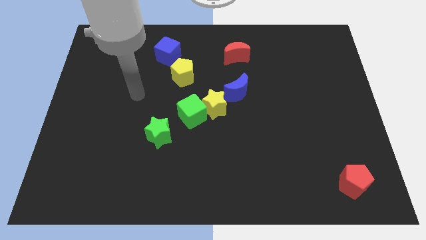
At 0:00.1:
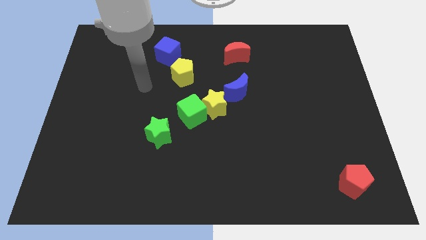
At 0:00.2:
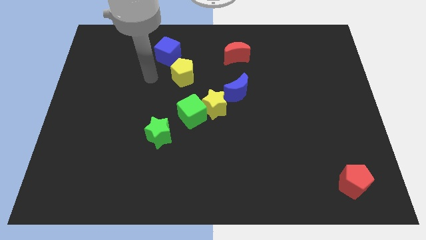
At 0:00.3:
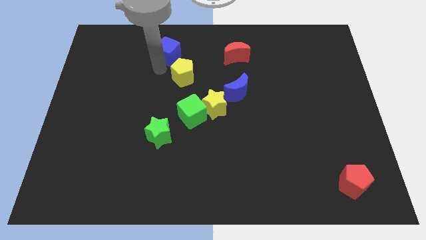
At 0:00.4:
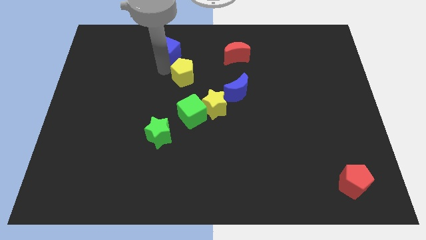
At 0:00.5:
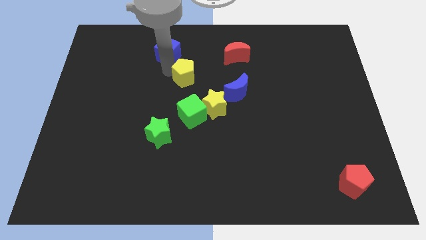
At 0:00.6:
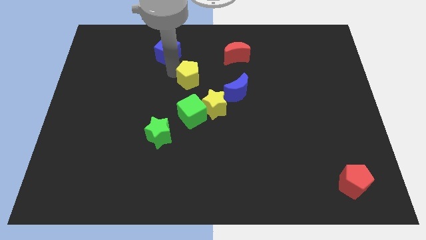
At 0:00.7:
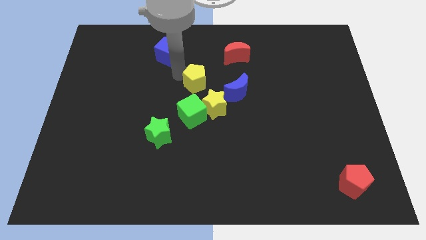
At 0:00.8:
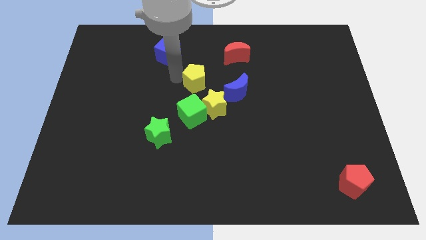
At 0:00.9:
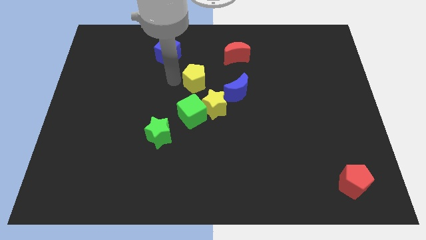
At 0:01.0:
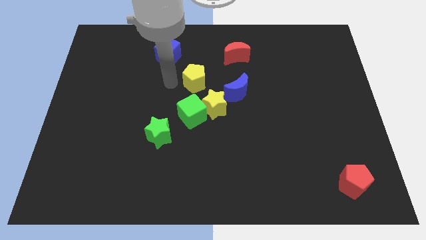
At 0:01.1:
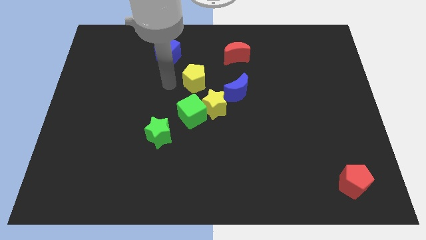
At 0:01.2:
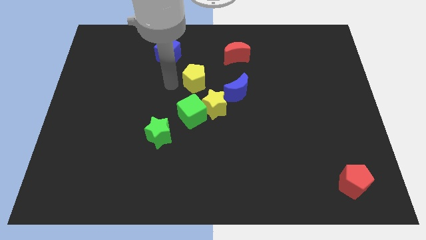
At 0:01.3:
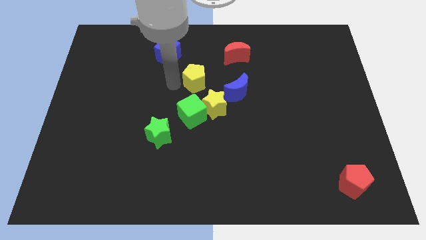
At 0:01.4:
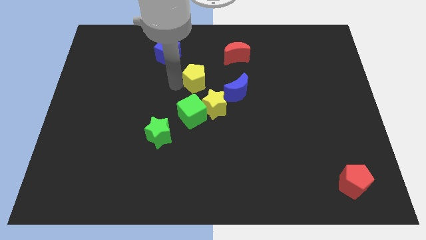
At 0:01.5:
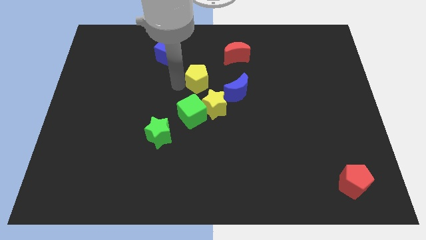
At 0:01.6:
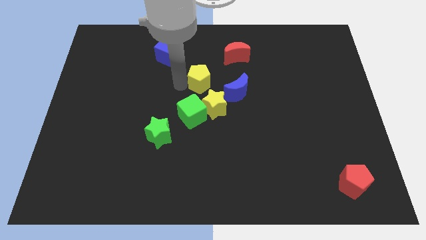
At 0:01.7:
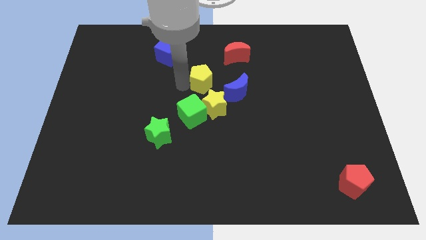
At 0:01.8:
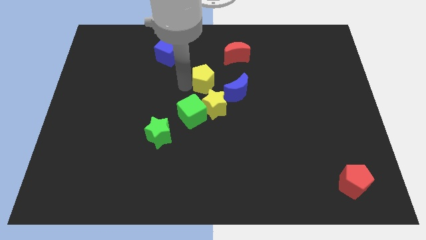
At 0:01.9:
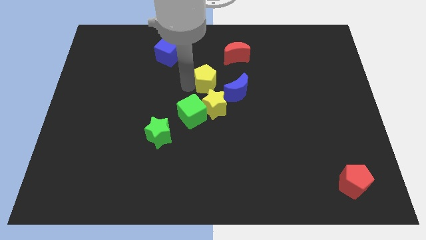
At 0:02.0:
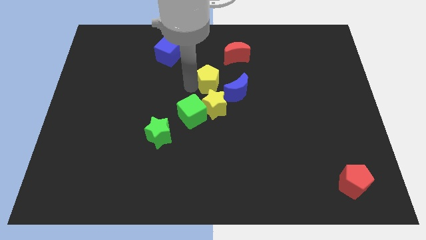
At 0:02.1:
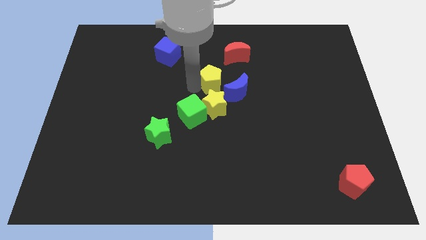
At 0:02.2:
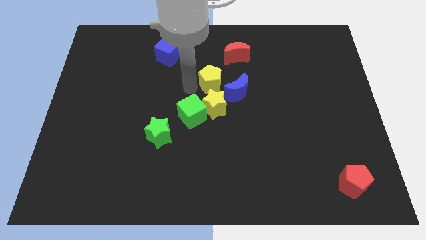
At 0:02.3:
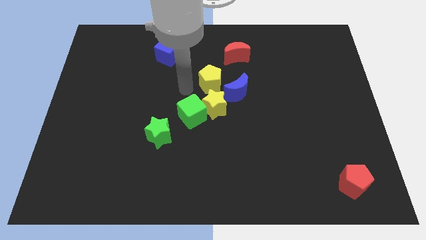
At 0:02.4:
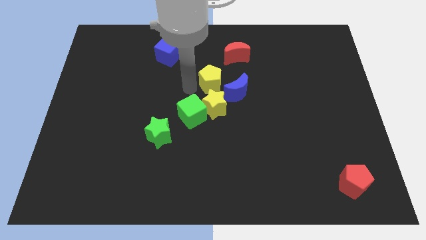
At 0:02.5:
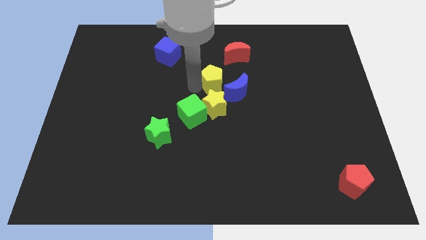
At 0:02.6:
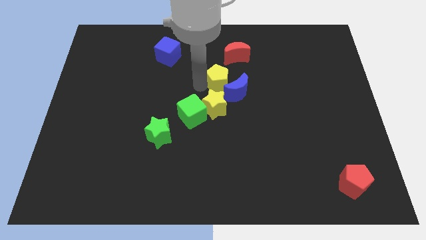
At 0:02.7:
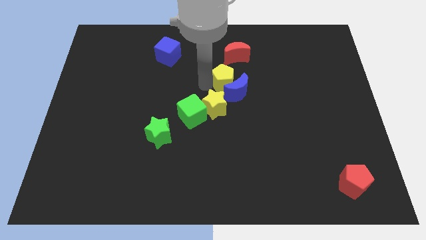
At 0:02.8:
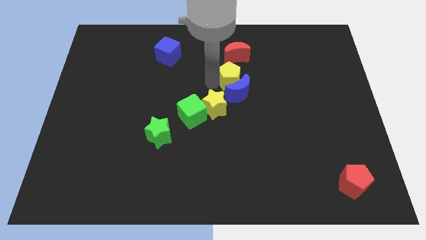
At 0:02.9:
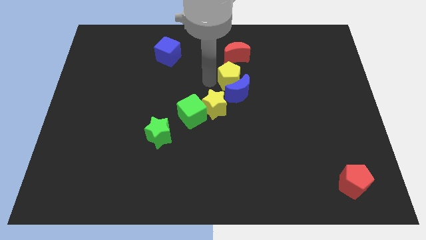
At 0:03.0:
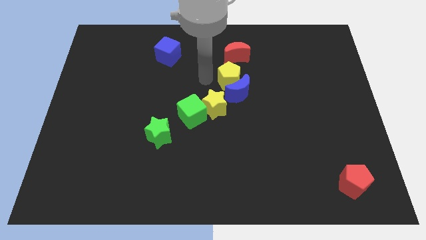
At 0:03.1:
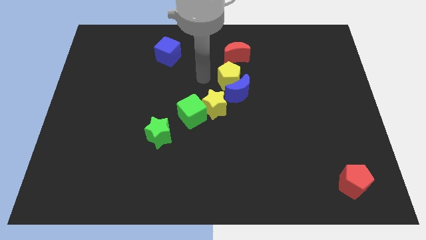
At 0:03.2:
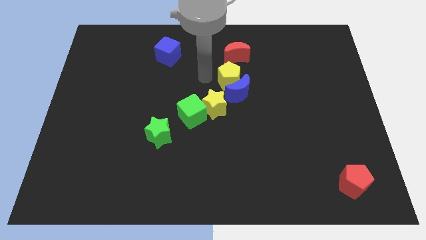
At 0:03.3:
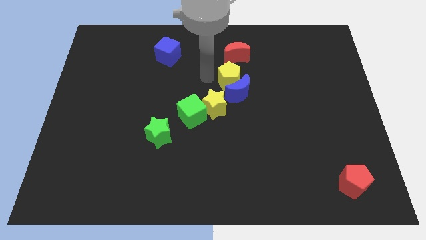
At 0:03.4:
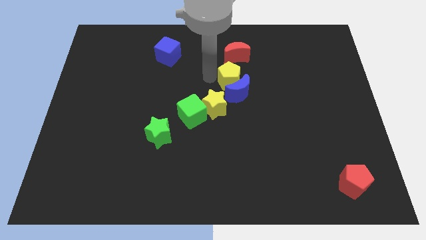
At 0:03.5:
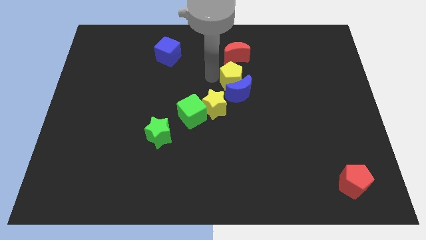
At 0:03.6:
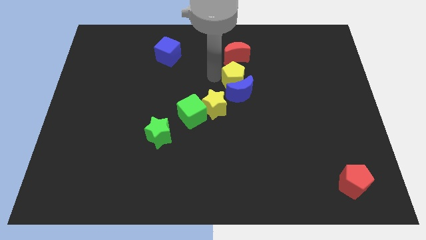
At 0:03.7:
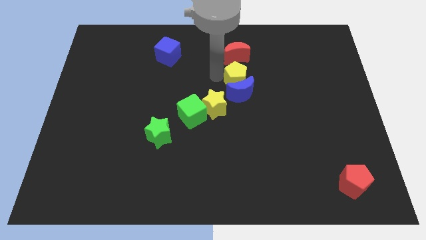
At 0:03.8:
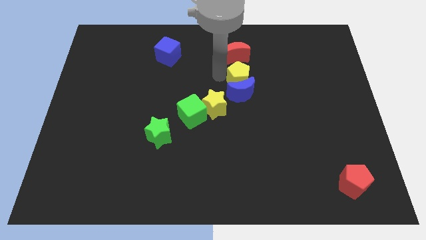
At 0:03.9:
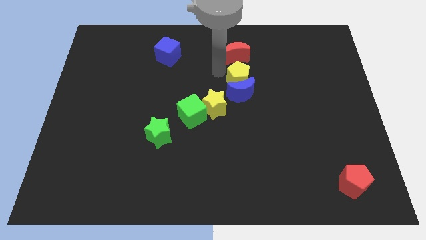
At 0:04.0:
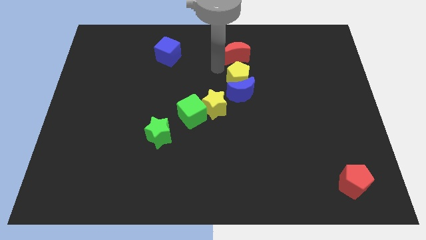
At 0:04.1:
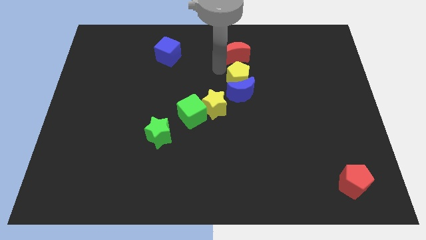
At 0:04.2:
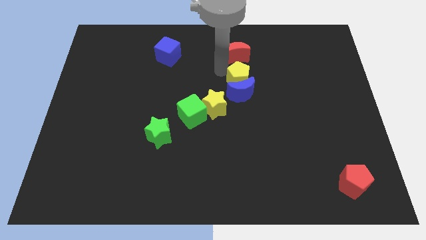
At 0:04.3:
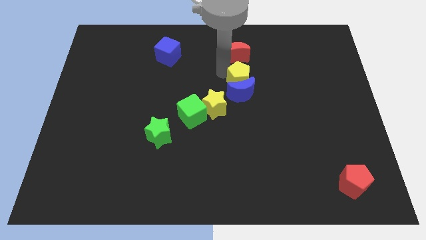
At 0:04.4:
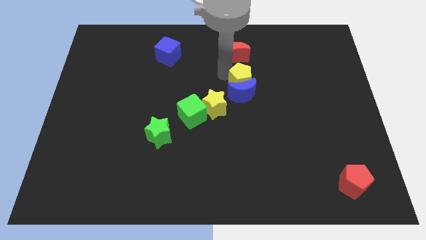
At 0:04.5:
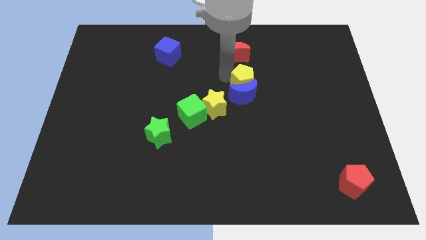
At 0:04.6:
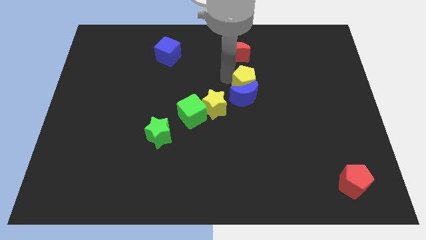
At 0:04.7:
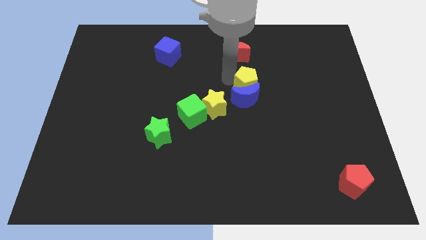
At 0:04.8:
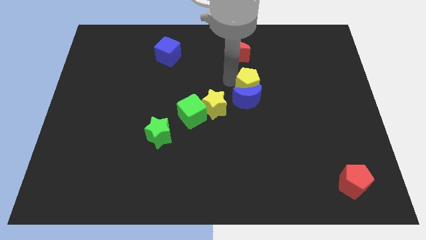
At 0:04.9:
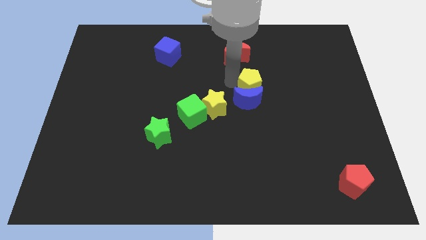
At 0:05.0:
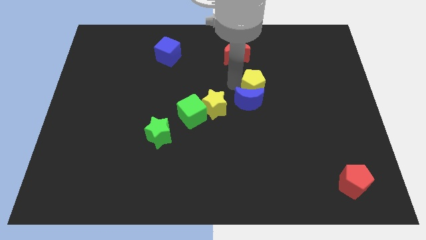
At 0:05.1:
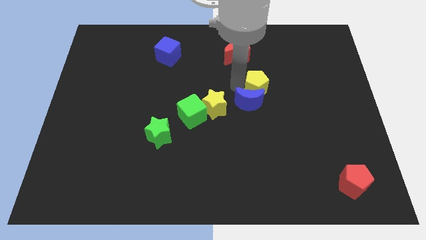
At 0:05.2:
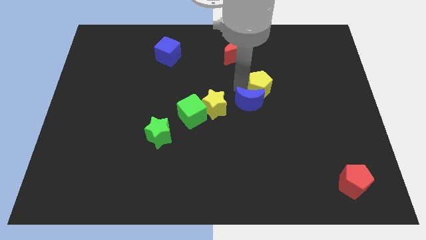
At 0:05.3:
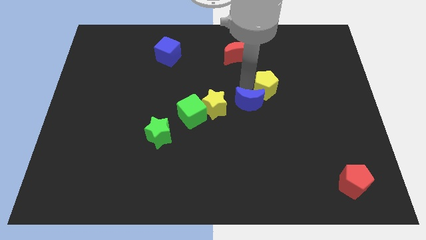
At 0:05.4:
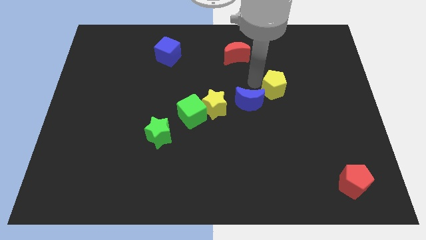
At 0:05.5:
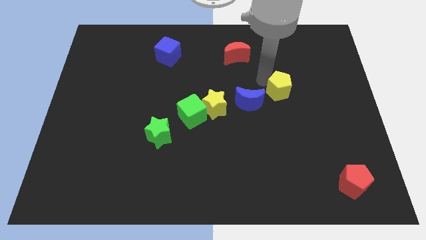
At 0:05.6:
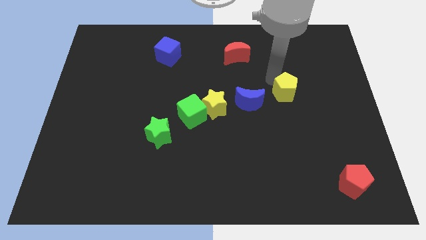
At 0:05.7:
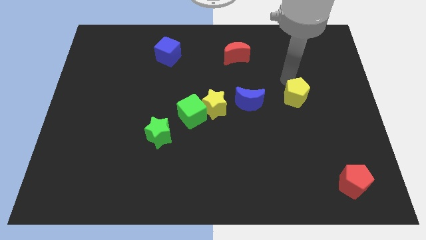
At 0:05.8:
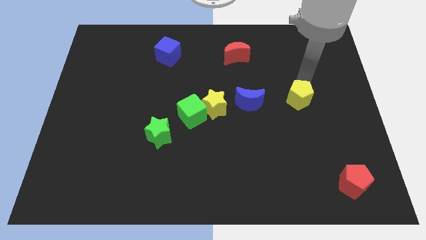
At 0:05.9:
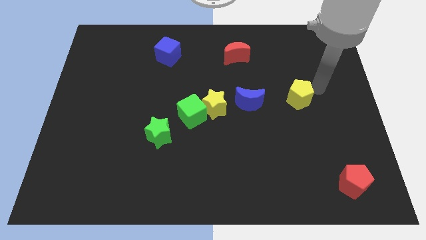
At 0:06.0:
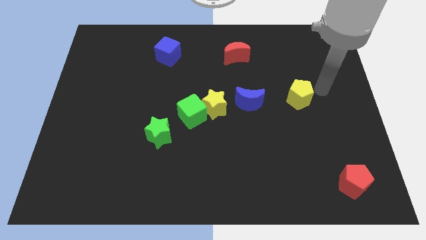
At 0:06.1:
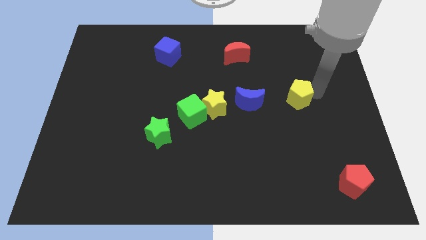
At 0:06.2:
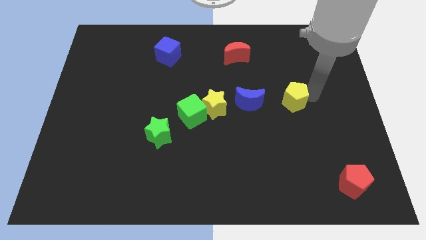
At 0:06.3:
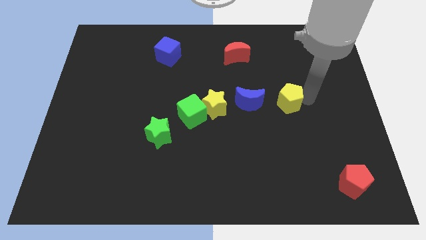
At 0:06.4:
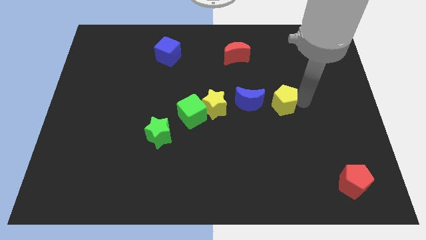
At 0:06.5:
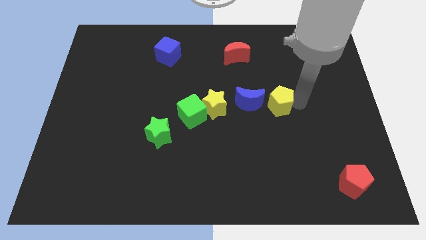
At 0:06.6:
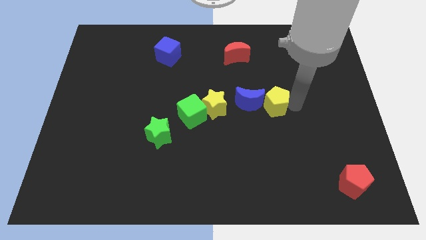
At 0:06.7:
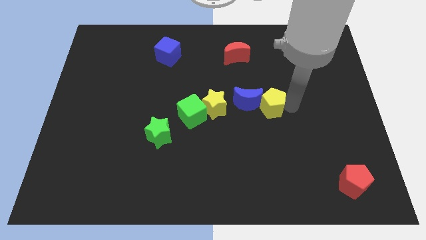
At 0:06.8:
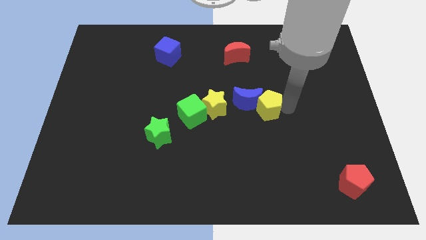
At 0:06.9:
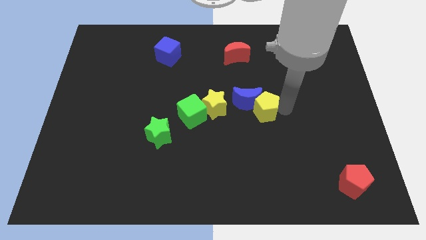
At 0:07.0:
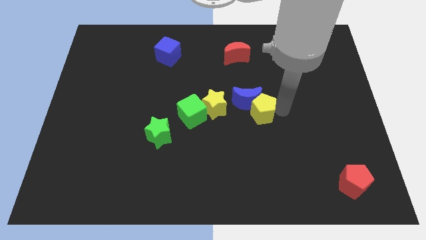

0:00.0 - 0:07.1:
move the yellow pentagon just right of the green cube
